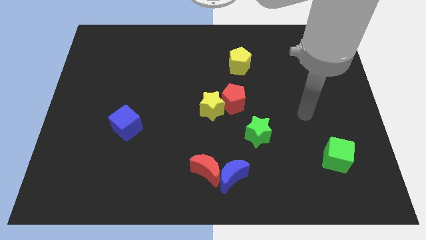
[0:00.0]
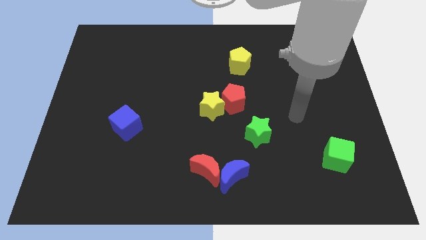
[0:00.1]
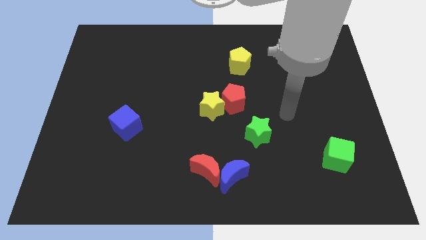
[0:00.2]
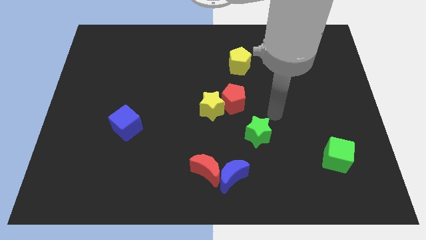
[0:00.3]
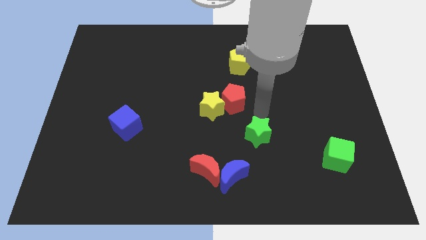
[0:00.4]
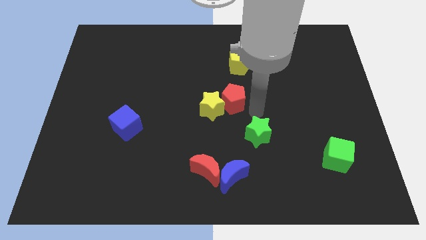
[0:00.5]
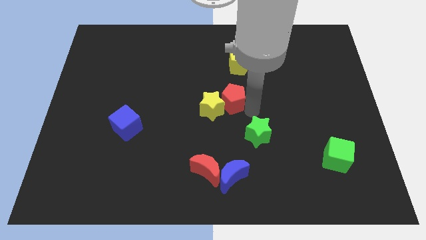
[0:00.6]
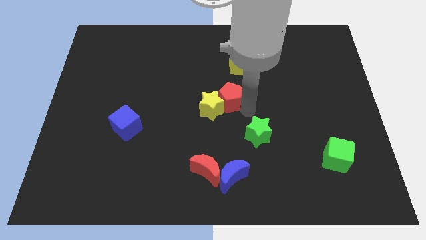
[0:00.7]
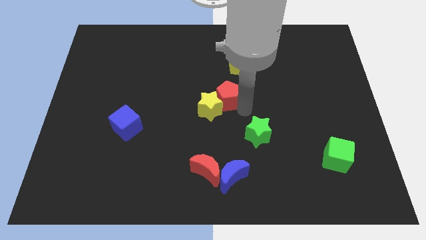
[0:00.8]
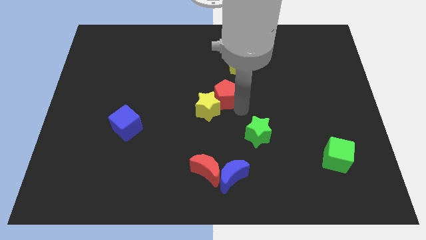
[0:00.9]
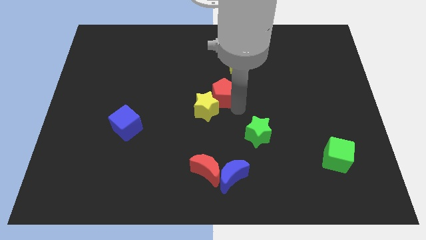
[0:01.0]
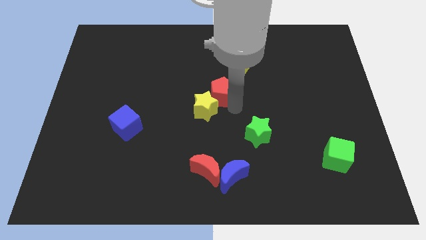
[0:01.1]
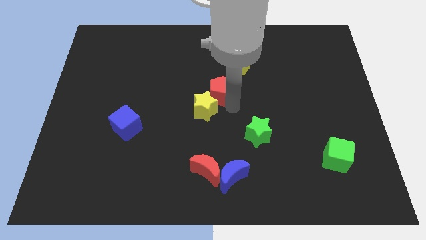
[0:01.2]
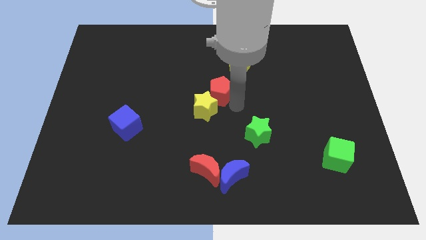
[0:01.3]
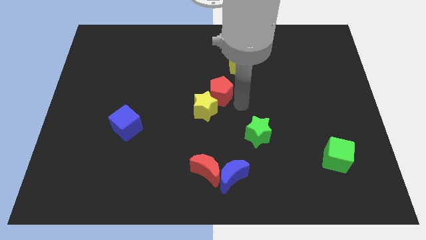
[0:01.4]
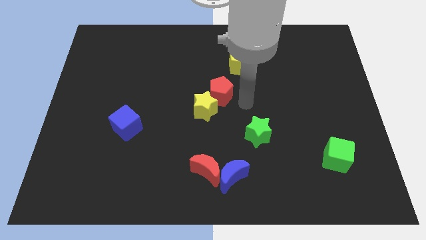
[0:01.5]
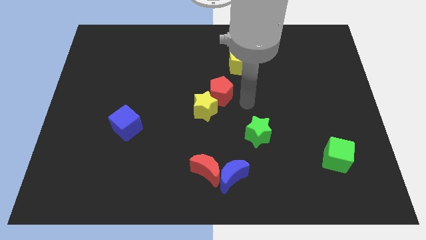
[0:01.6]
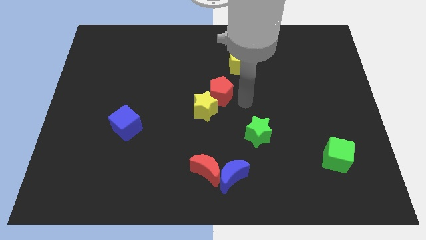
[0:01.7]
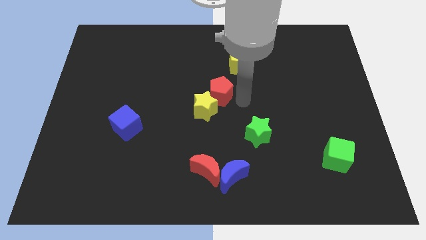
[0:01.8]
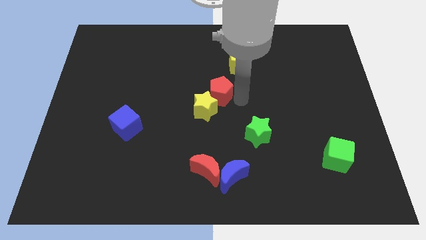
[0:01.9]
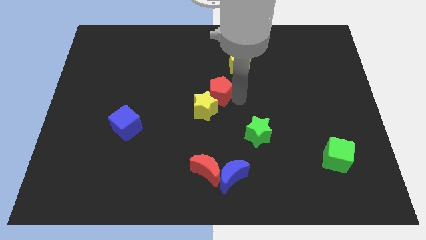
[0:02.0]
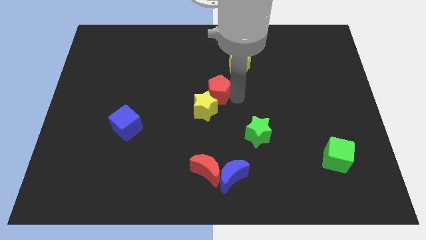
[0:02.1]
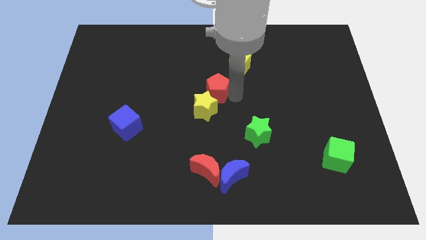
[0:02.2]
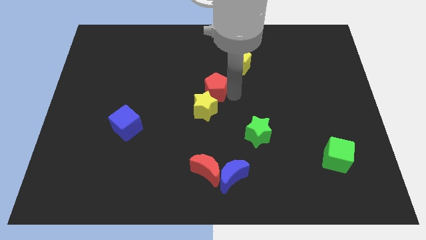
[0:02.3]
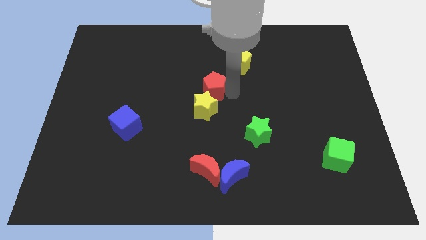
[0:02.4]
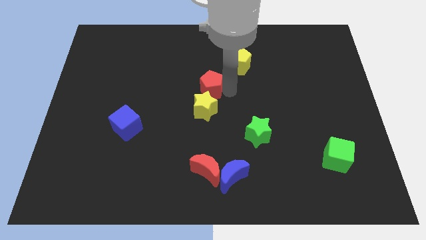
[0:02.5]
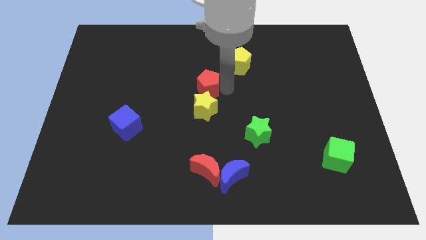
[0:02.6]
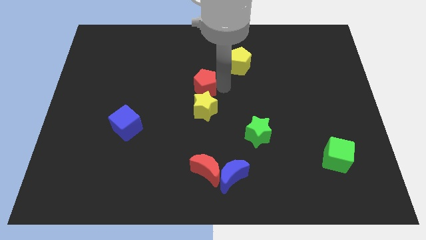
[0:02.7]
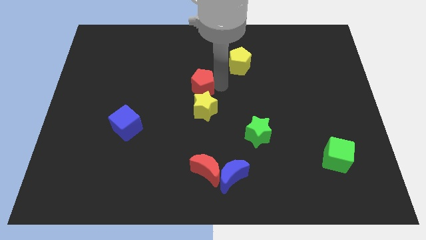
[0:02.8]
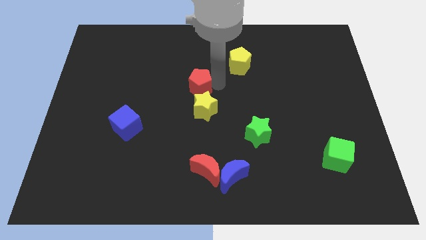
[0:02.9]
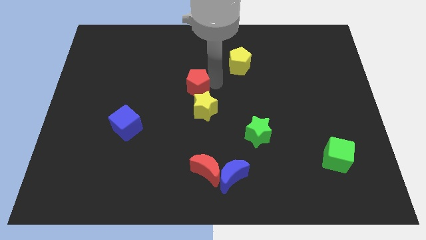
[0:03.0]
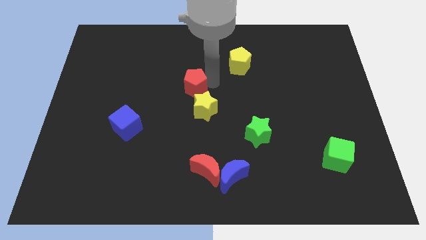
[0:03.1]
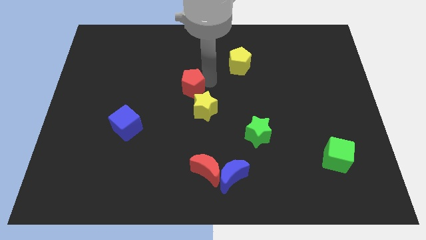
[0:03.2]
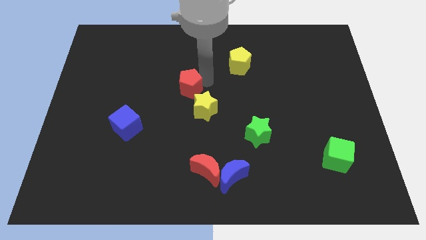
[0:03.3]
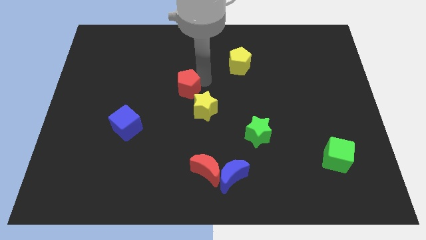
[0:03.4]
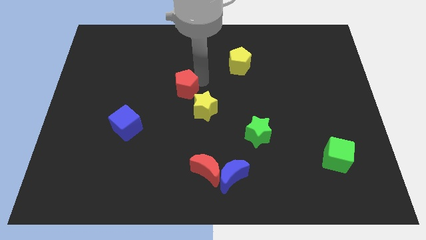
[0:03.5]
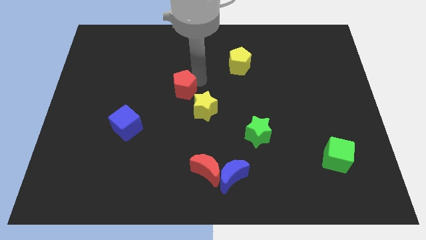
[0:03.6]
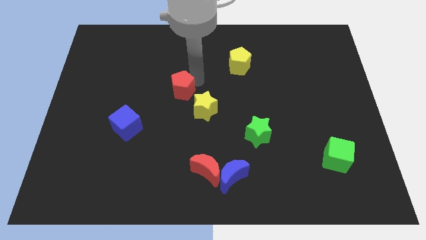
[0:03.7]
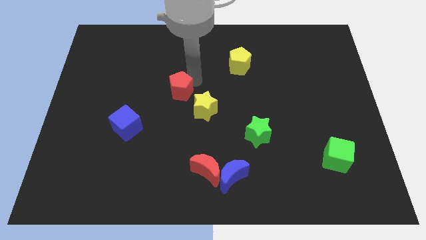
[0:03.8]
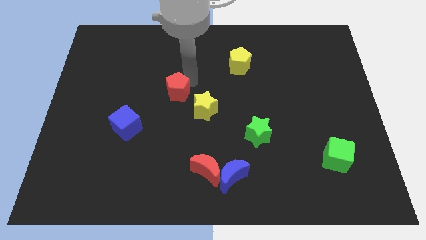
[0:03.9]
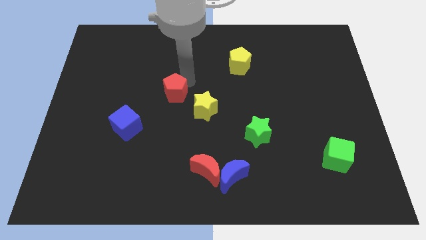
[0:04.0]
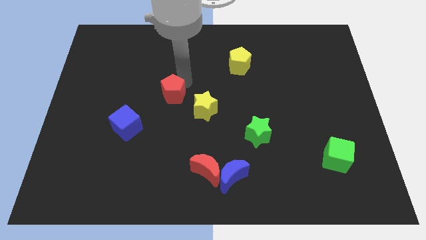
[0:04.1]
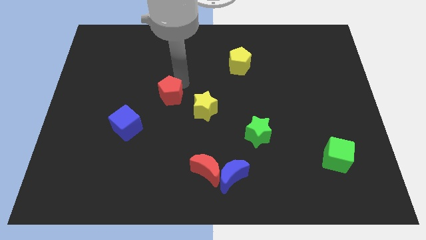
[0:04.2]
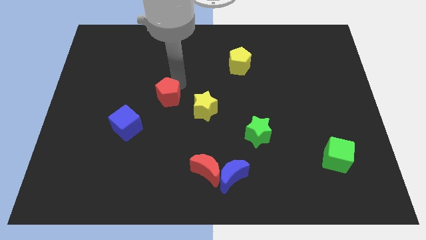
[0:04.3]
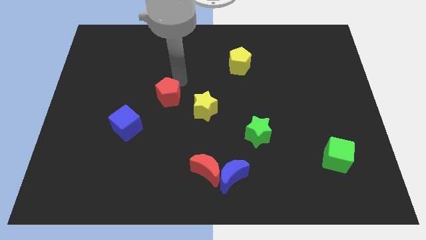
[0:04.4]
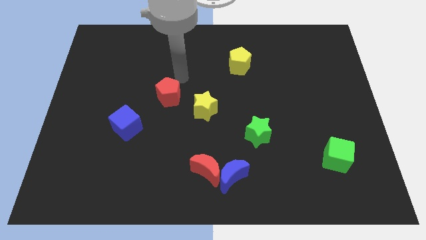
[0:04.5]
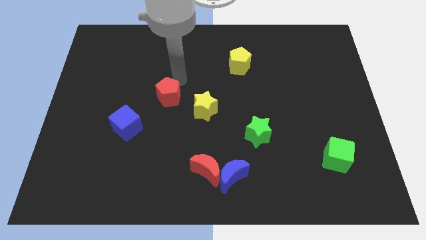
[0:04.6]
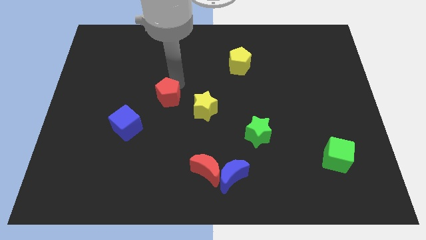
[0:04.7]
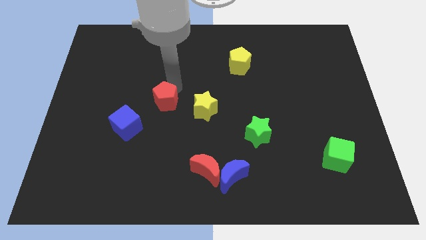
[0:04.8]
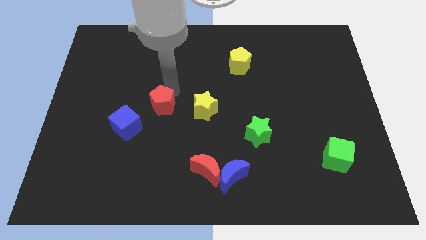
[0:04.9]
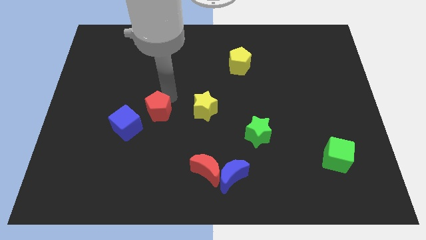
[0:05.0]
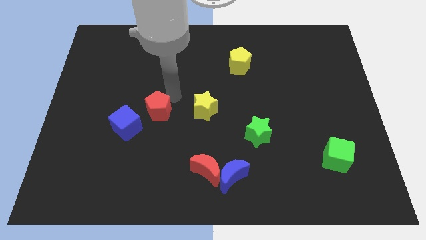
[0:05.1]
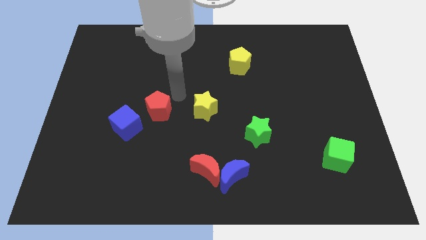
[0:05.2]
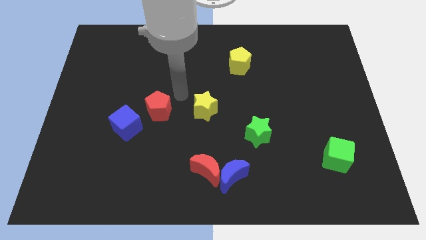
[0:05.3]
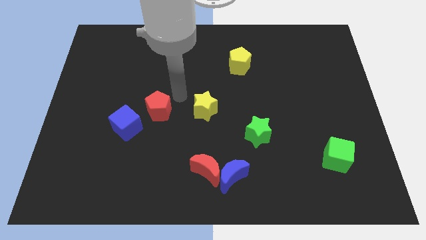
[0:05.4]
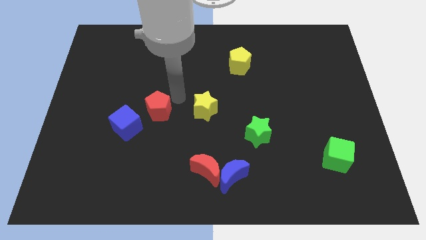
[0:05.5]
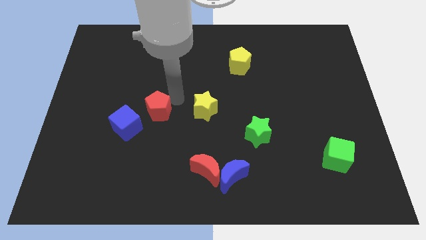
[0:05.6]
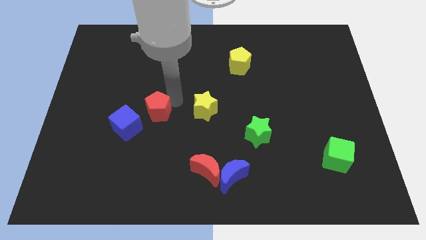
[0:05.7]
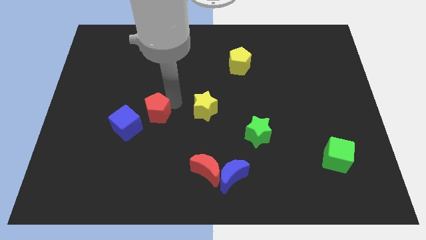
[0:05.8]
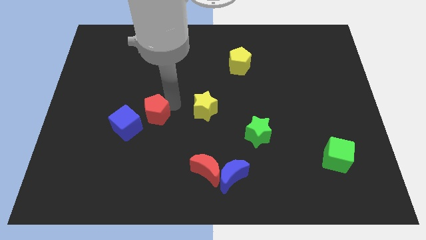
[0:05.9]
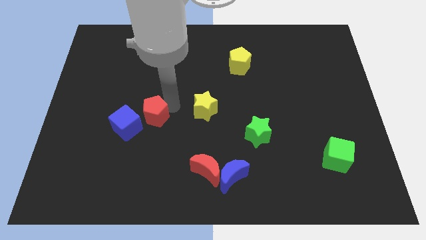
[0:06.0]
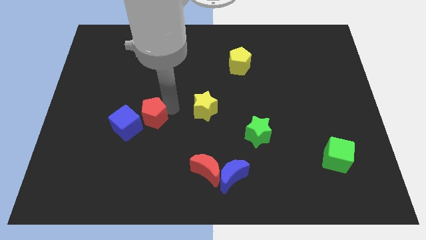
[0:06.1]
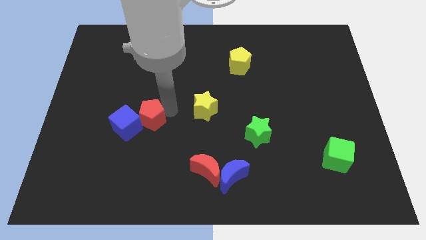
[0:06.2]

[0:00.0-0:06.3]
slide the red pentagon close to the blue cube

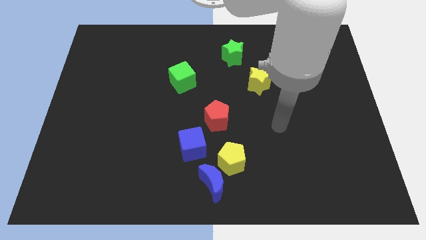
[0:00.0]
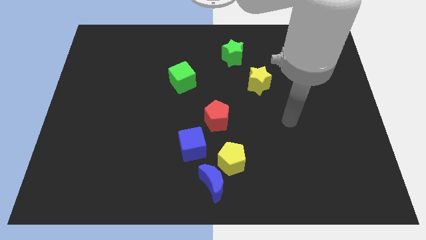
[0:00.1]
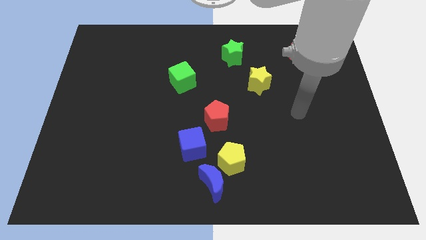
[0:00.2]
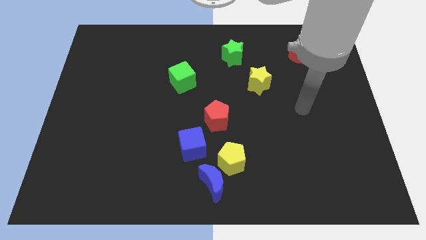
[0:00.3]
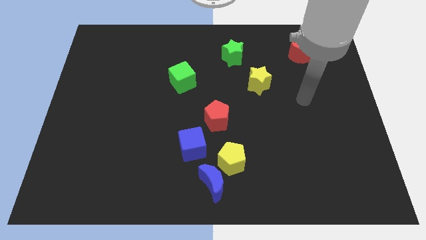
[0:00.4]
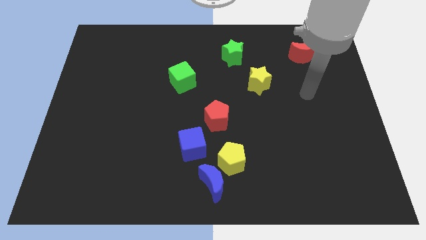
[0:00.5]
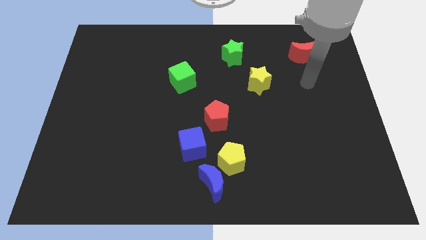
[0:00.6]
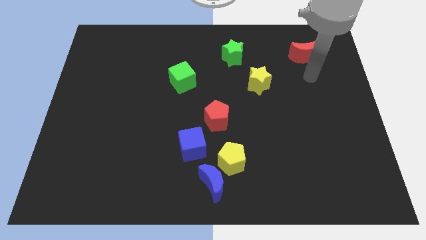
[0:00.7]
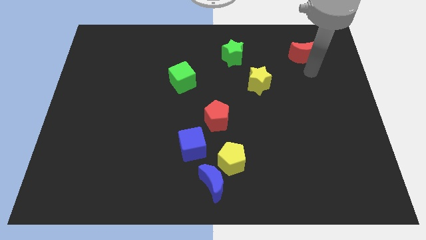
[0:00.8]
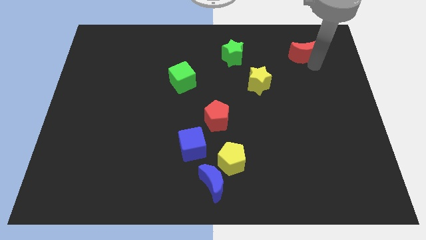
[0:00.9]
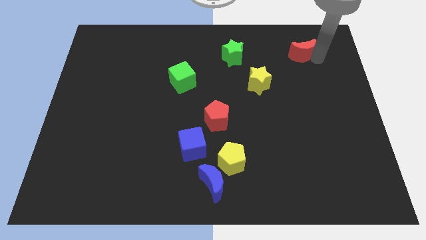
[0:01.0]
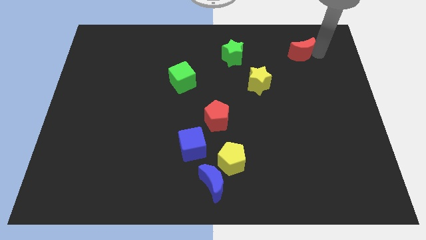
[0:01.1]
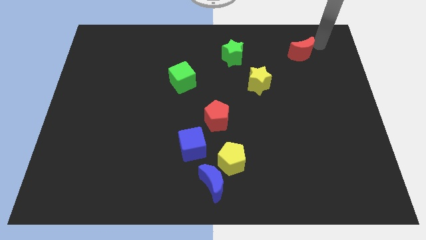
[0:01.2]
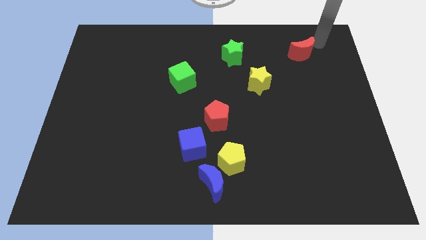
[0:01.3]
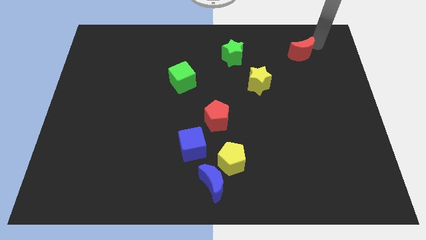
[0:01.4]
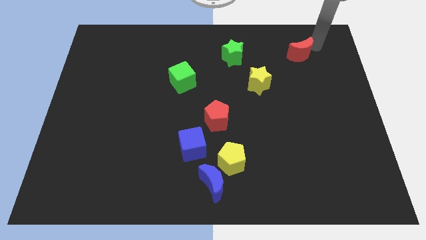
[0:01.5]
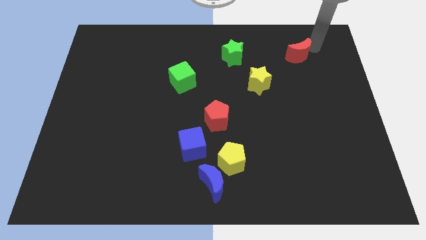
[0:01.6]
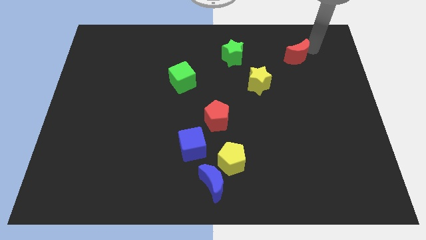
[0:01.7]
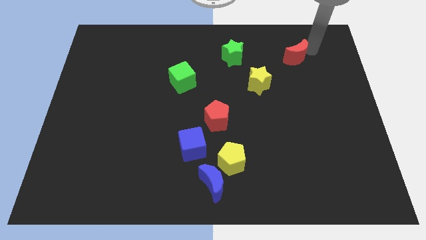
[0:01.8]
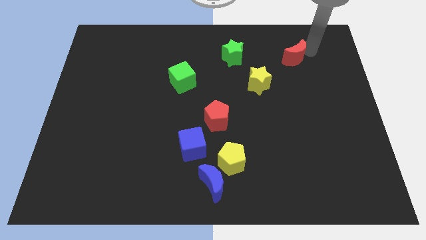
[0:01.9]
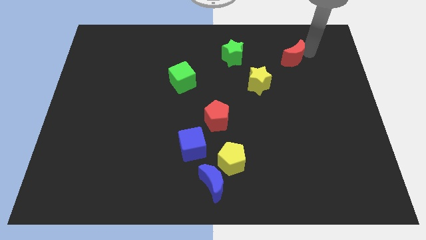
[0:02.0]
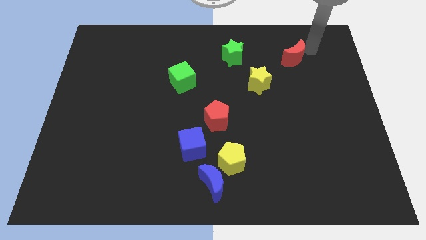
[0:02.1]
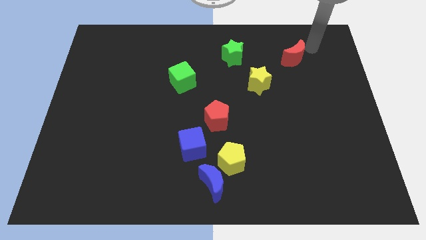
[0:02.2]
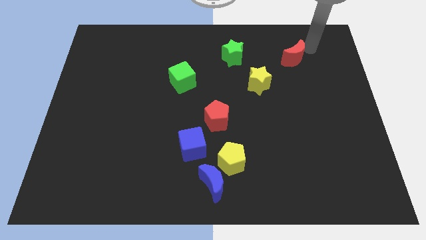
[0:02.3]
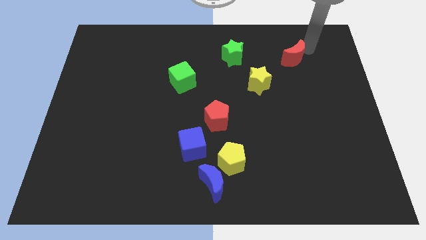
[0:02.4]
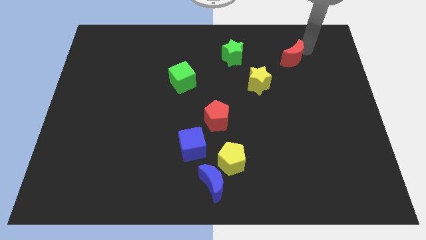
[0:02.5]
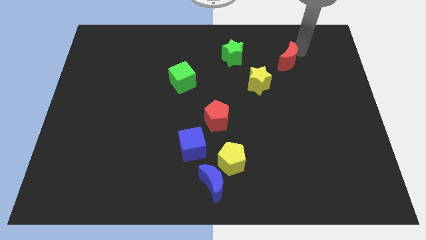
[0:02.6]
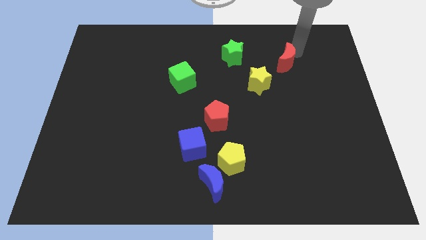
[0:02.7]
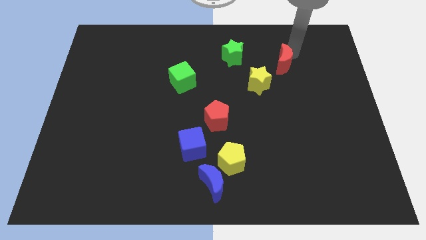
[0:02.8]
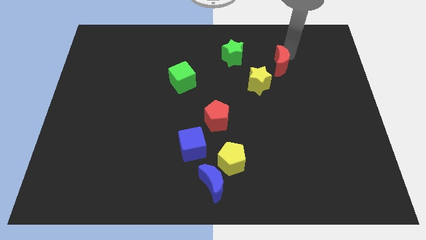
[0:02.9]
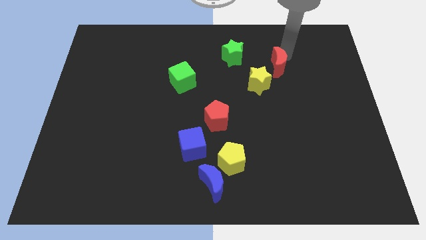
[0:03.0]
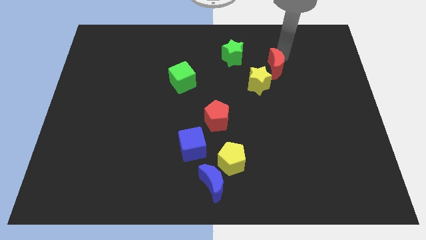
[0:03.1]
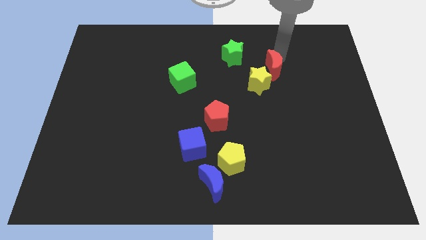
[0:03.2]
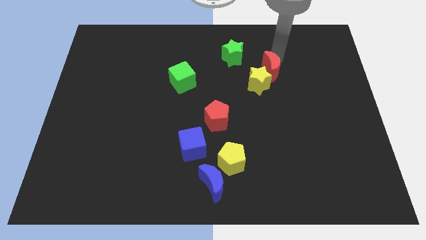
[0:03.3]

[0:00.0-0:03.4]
push the red moon towards the yellow star
